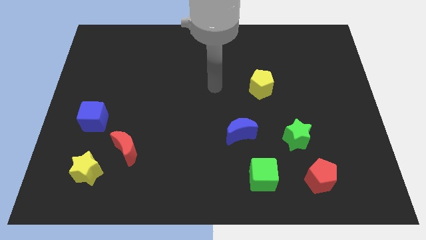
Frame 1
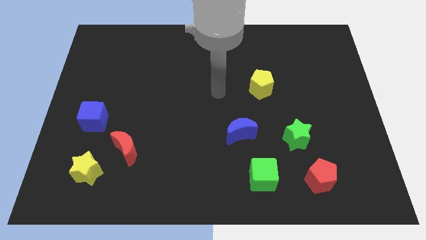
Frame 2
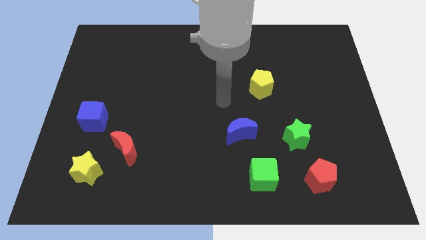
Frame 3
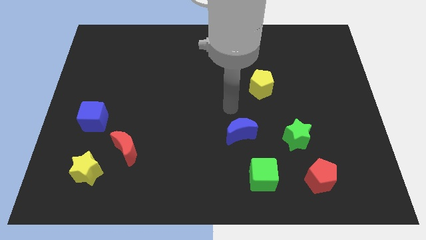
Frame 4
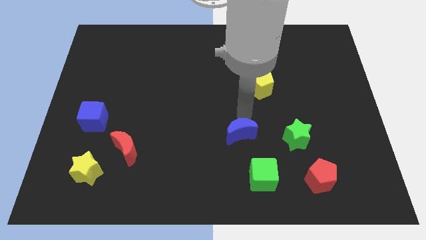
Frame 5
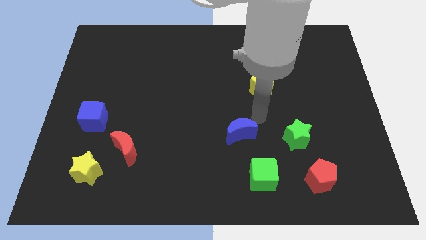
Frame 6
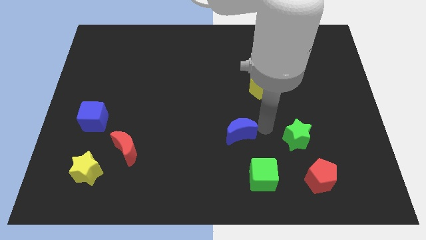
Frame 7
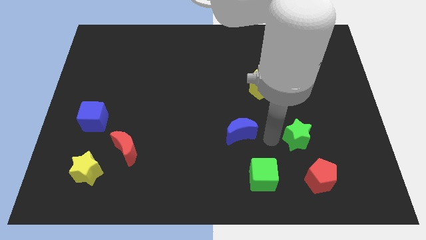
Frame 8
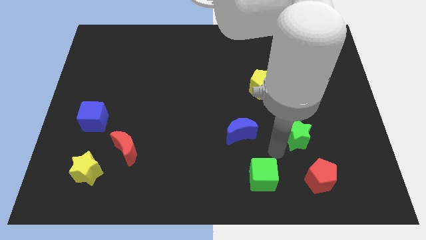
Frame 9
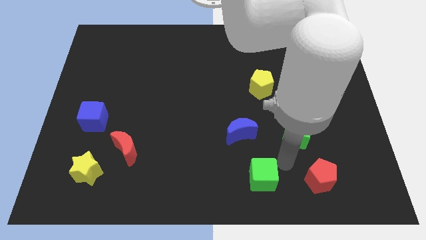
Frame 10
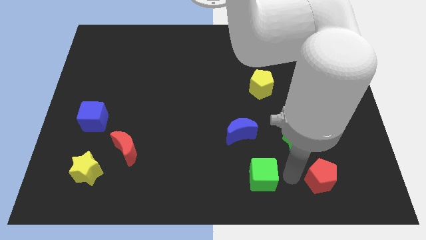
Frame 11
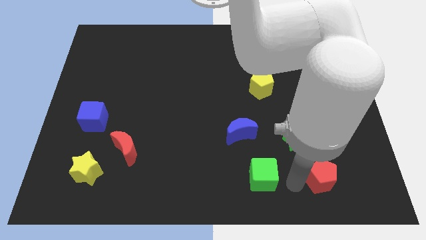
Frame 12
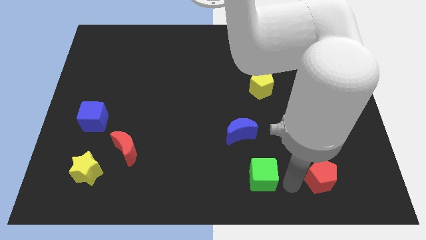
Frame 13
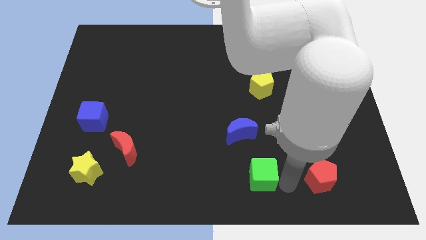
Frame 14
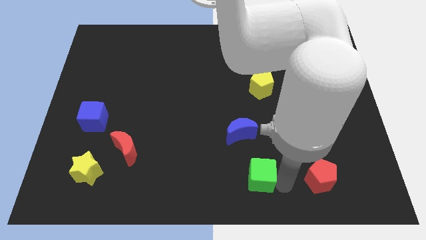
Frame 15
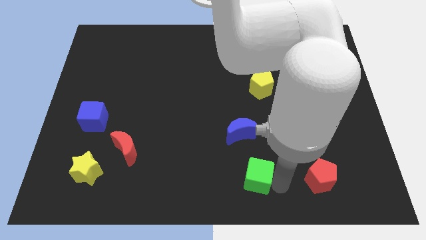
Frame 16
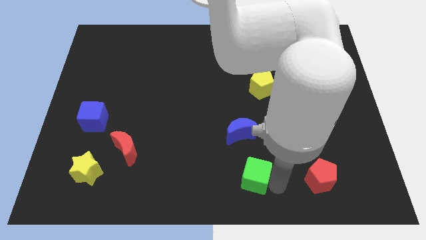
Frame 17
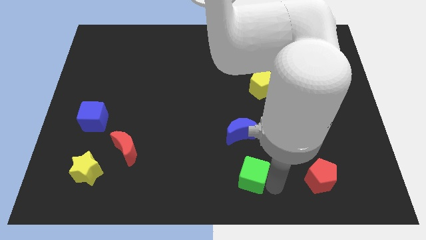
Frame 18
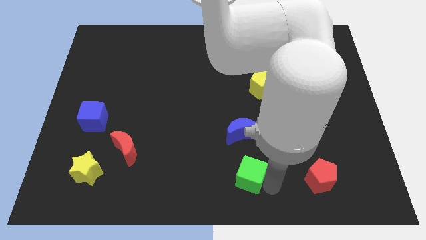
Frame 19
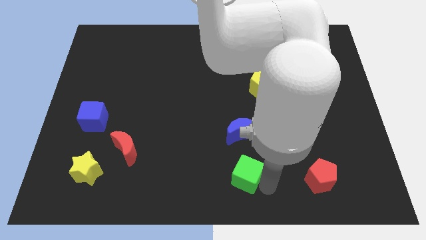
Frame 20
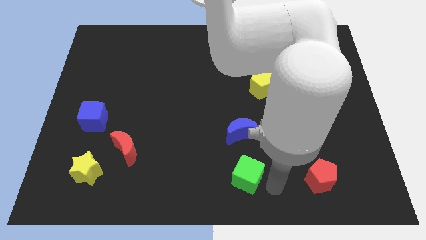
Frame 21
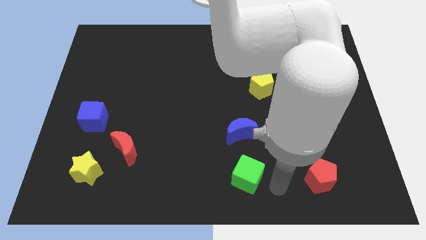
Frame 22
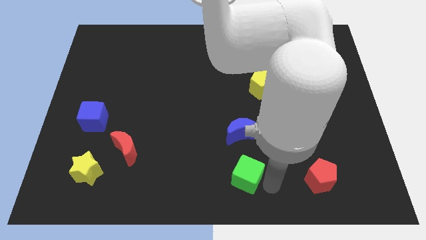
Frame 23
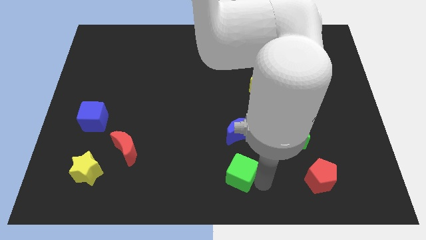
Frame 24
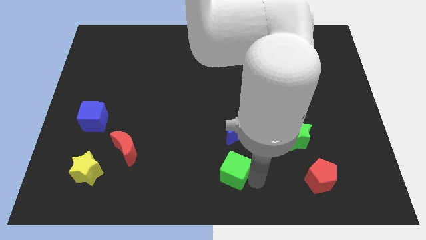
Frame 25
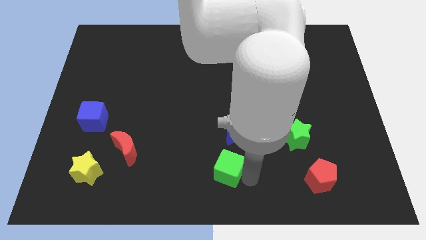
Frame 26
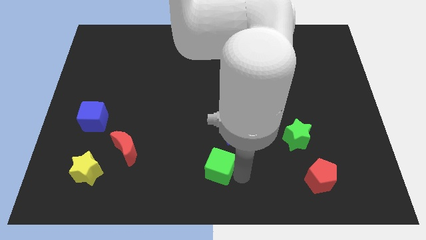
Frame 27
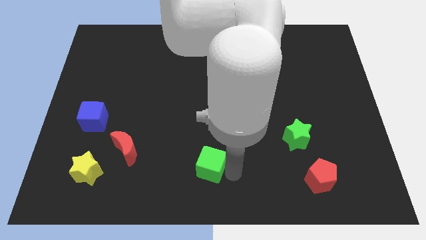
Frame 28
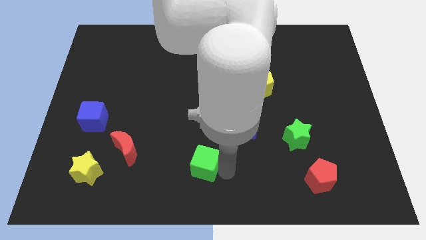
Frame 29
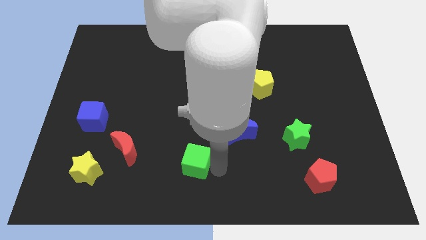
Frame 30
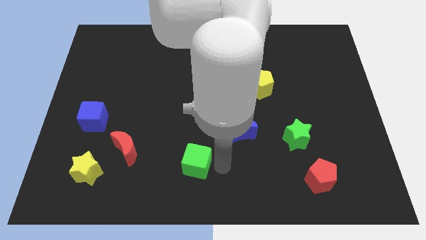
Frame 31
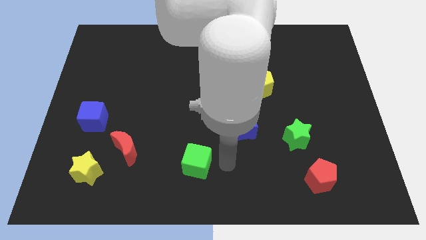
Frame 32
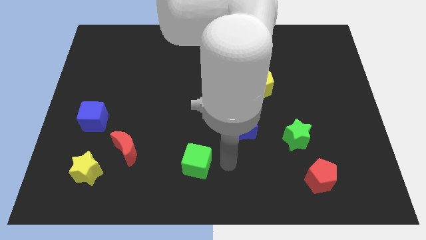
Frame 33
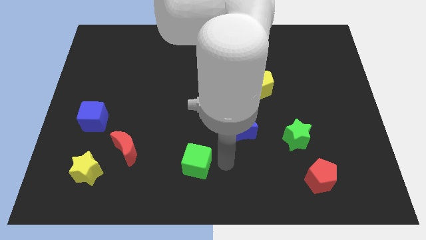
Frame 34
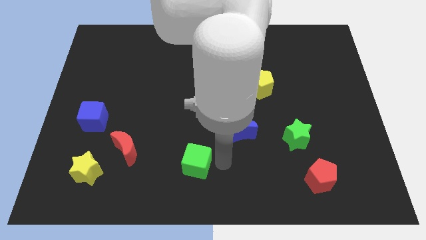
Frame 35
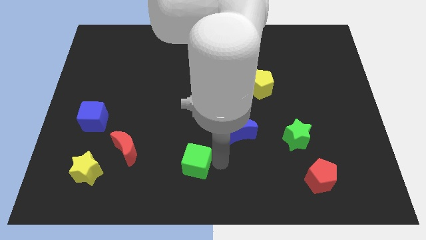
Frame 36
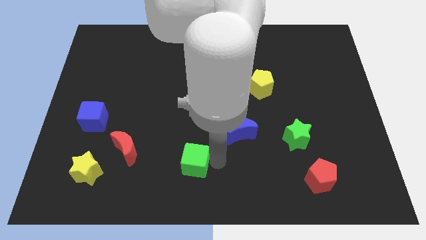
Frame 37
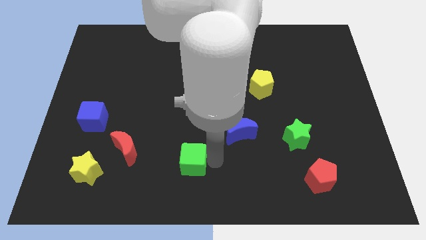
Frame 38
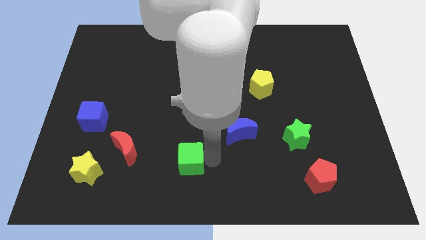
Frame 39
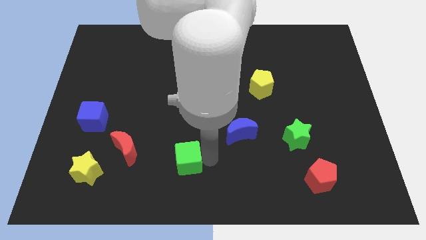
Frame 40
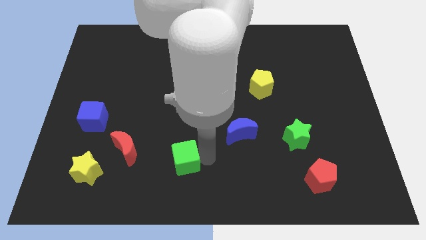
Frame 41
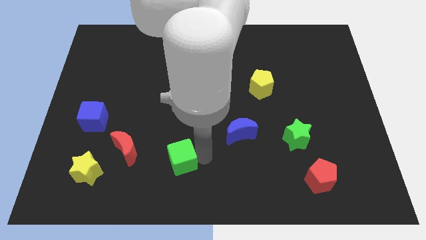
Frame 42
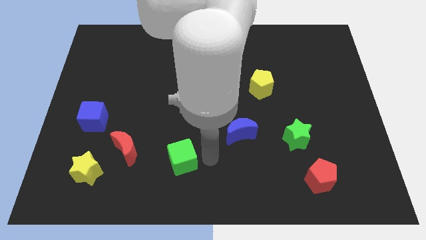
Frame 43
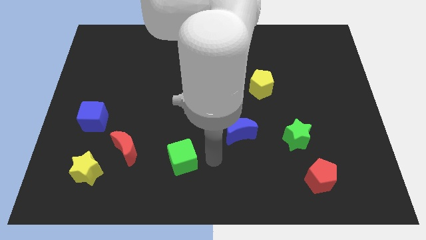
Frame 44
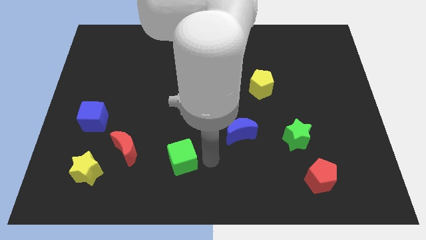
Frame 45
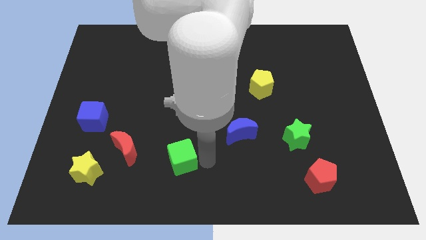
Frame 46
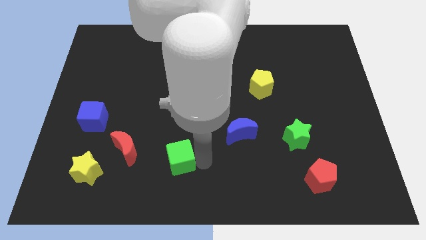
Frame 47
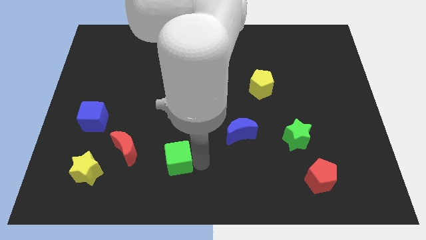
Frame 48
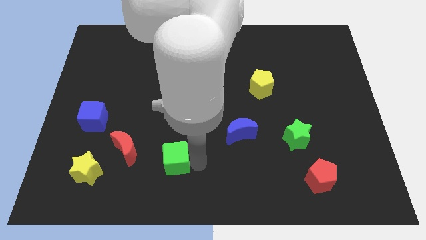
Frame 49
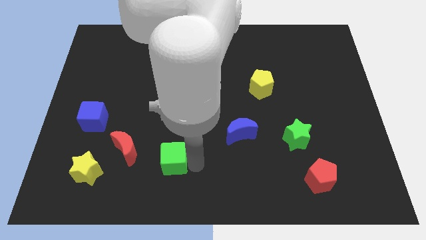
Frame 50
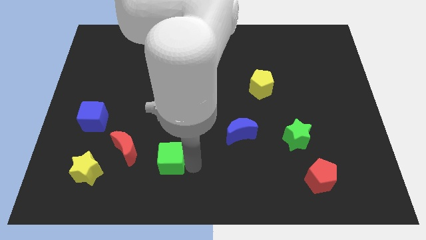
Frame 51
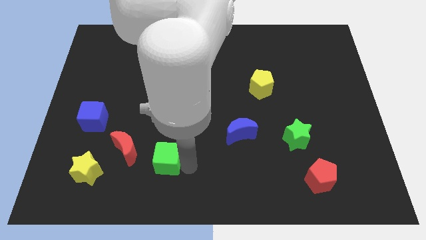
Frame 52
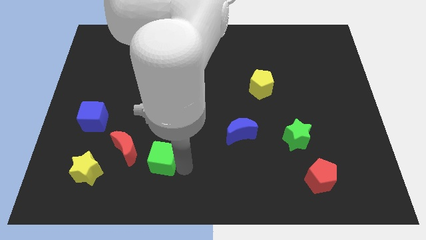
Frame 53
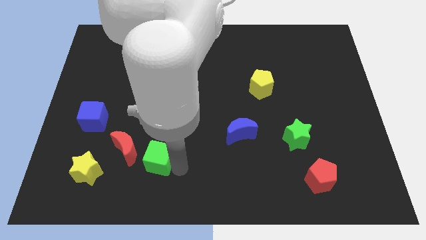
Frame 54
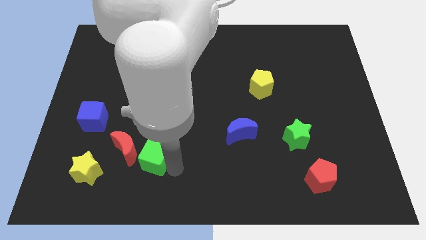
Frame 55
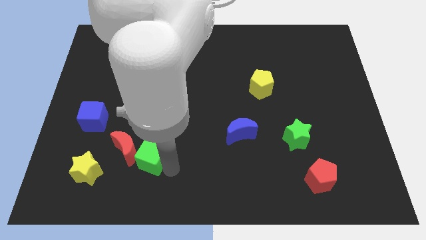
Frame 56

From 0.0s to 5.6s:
move the green cube towards the red moon

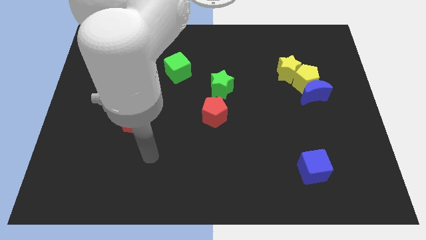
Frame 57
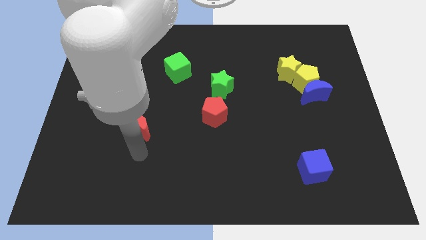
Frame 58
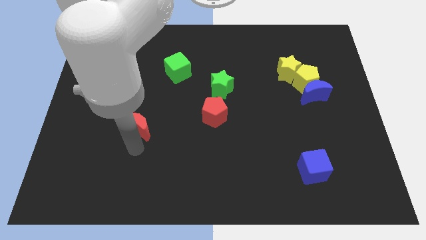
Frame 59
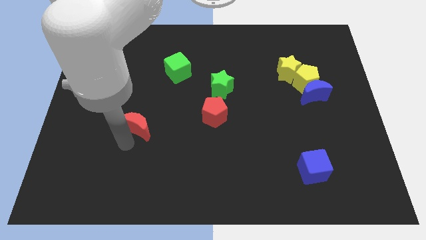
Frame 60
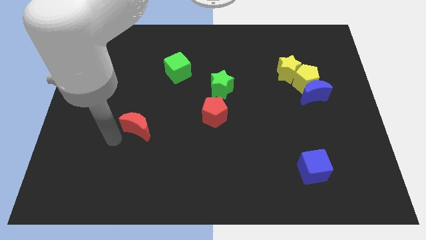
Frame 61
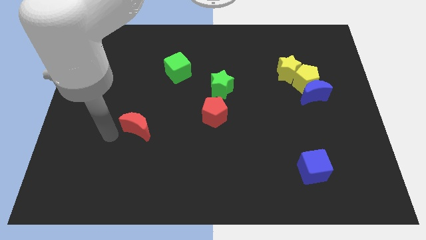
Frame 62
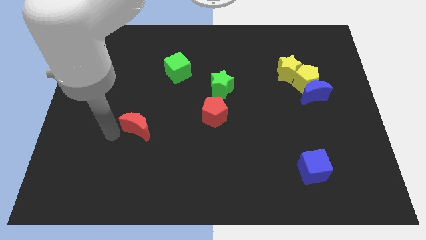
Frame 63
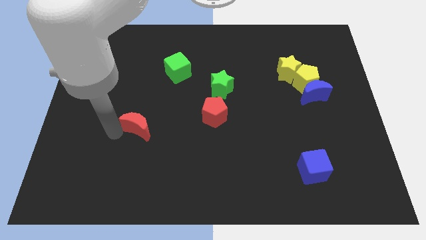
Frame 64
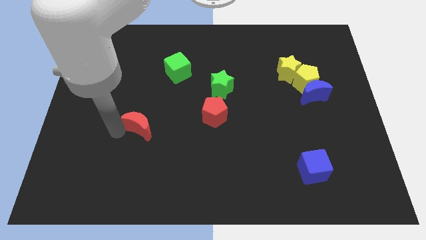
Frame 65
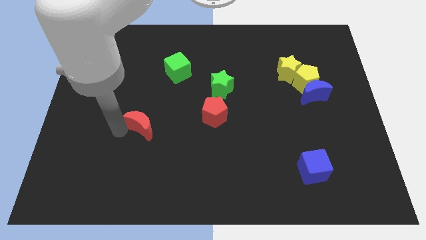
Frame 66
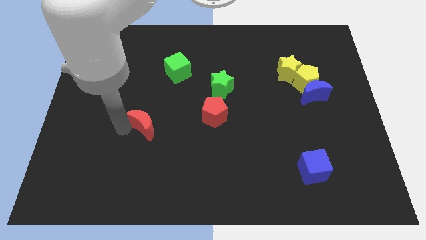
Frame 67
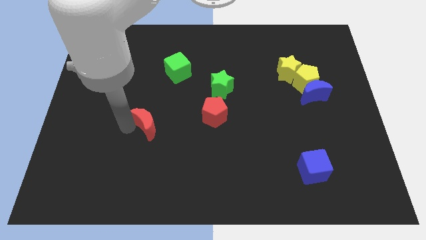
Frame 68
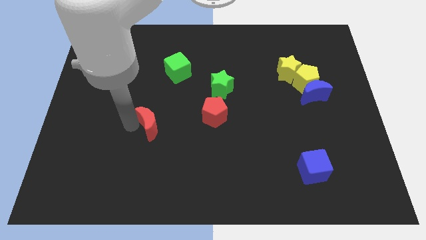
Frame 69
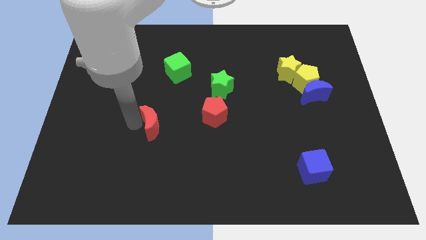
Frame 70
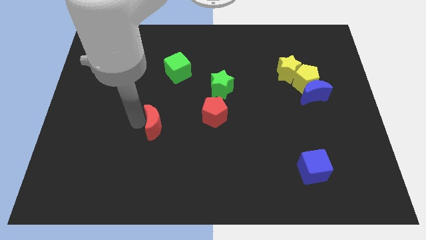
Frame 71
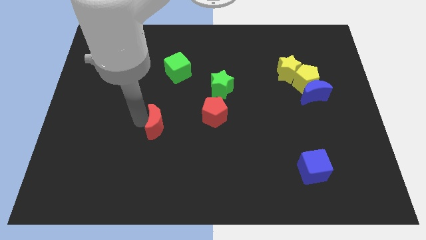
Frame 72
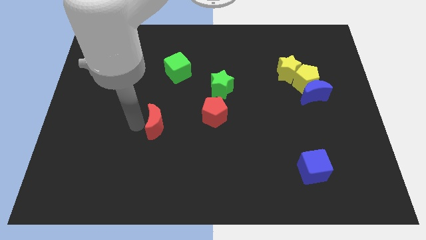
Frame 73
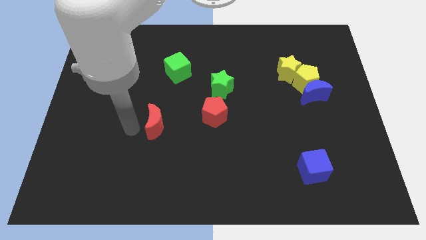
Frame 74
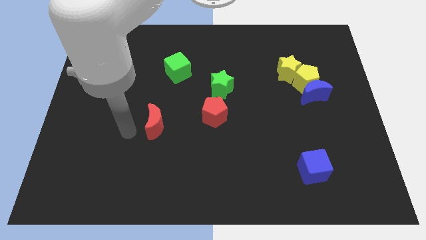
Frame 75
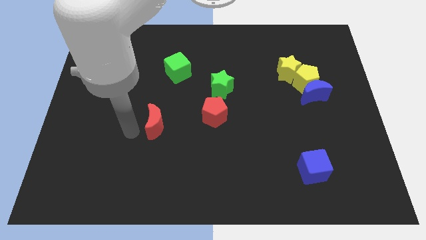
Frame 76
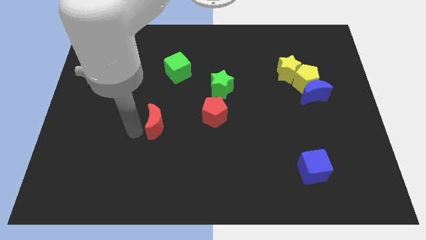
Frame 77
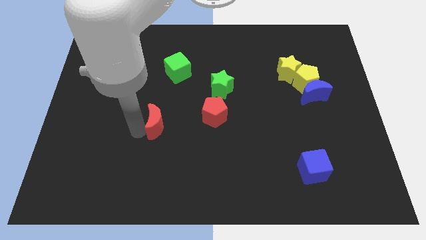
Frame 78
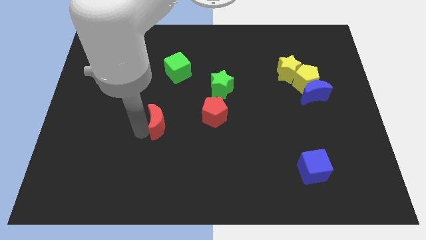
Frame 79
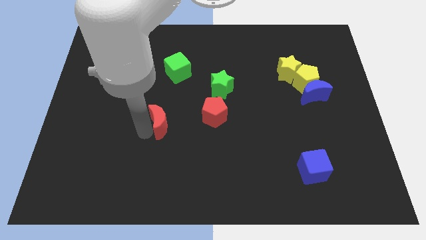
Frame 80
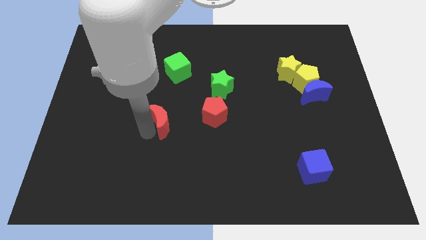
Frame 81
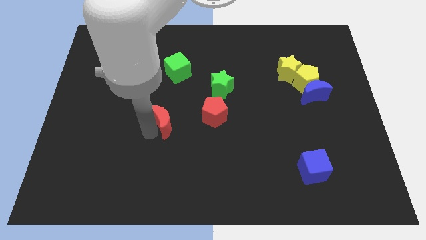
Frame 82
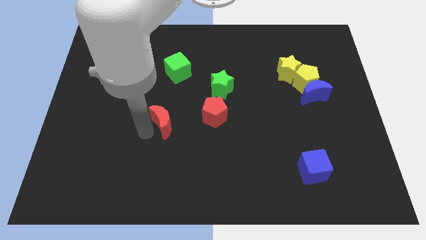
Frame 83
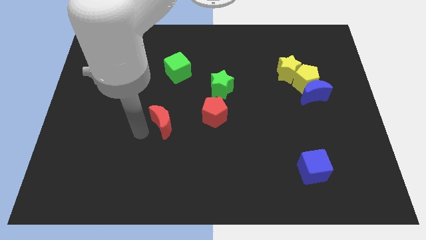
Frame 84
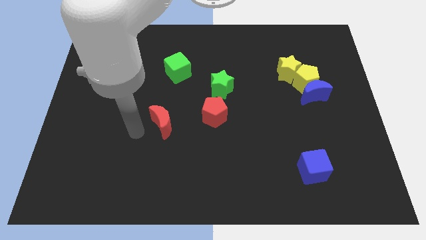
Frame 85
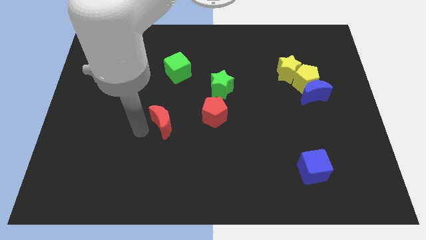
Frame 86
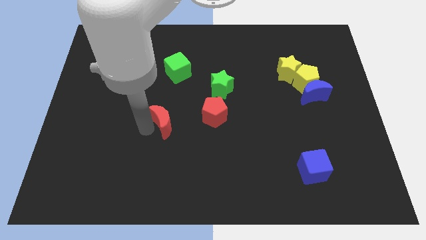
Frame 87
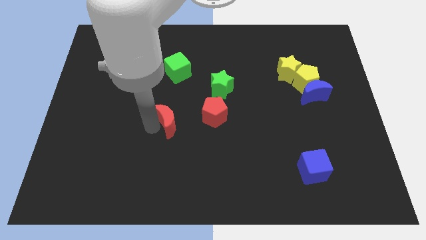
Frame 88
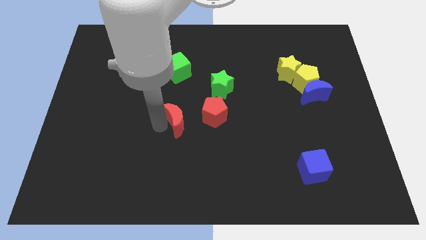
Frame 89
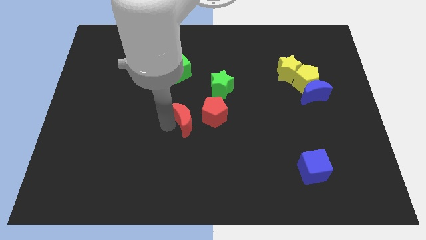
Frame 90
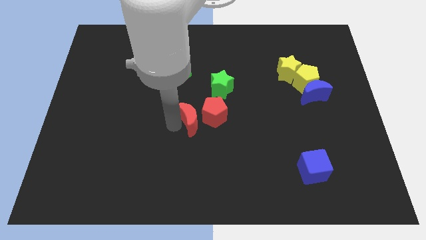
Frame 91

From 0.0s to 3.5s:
slide the red moon close to the red pentagon
